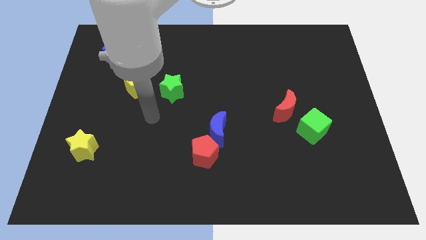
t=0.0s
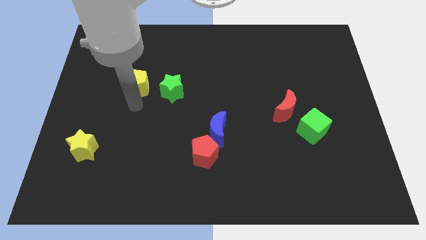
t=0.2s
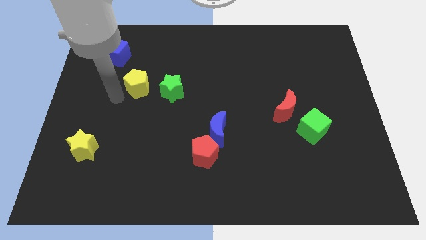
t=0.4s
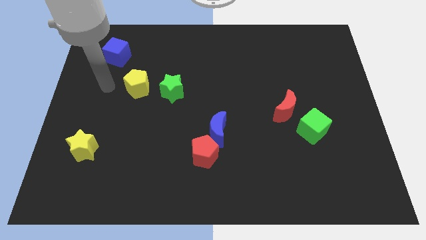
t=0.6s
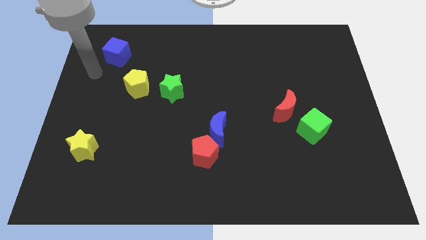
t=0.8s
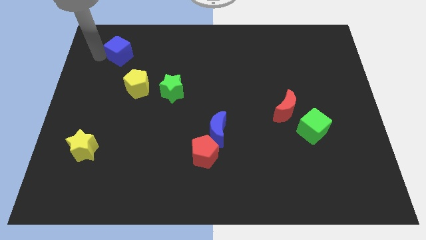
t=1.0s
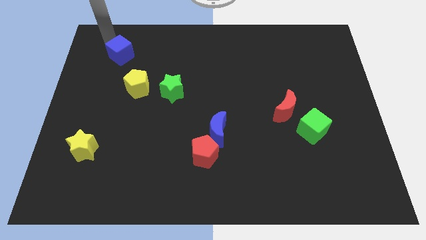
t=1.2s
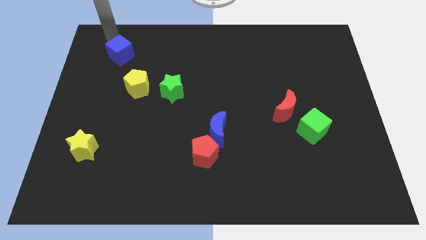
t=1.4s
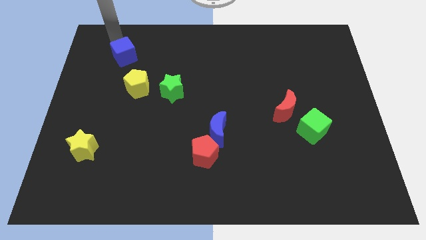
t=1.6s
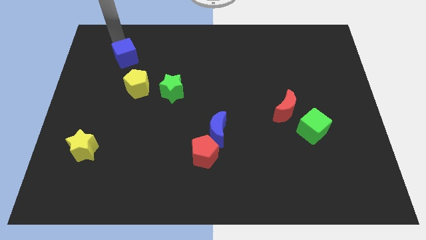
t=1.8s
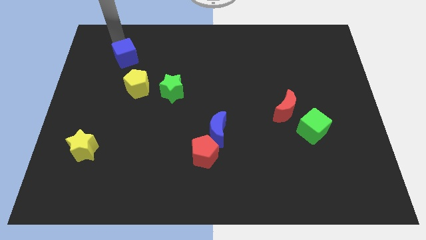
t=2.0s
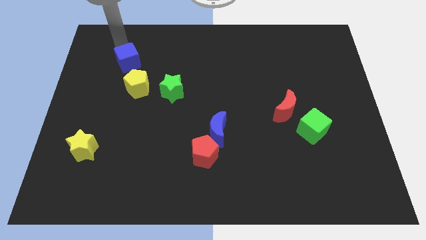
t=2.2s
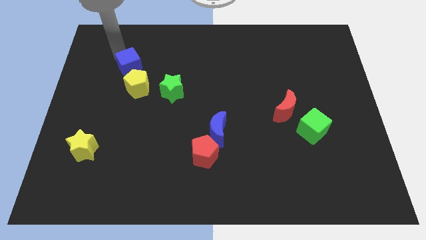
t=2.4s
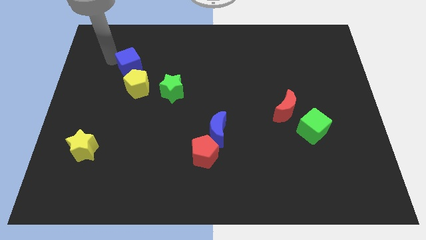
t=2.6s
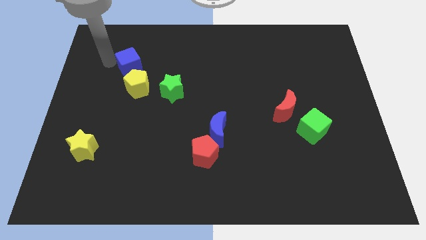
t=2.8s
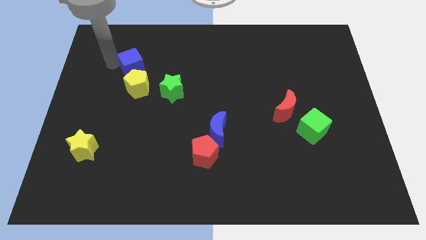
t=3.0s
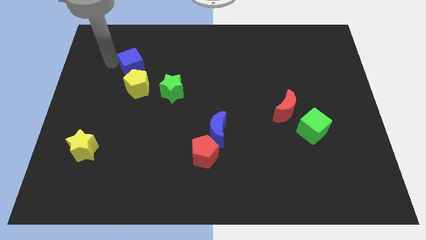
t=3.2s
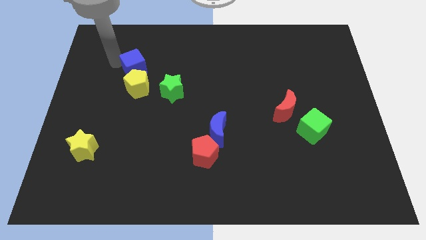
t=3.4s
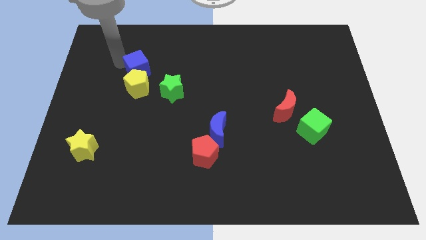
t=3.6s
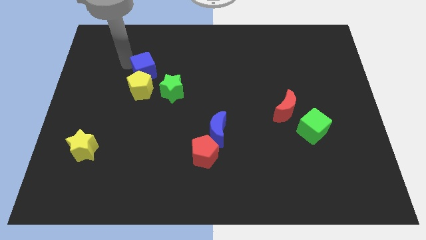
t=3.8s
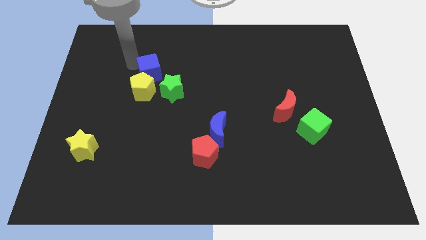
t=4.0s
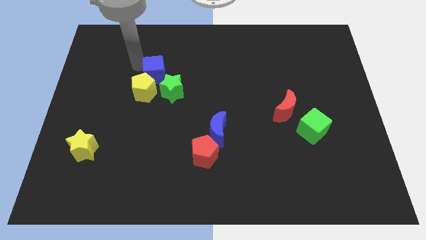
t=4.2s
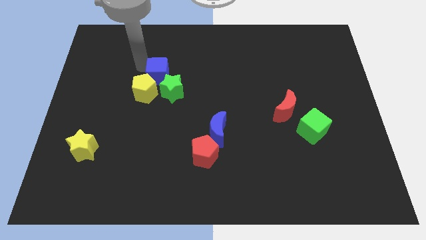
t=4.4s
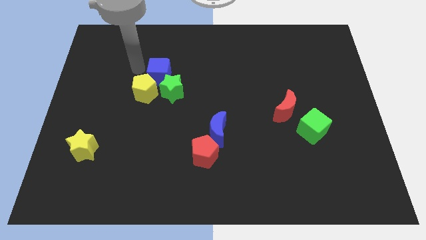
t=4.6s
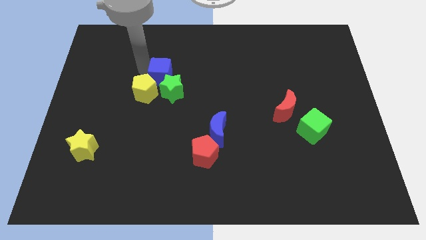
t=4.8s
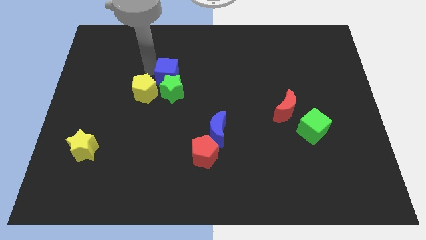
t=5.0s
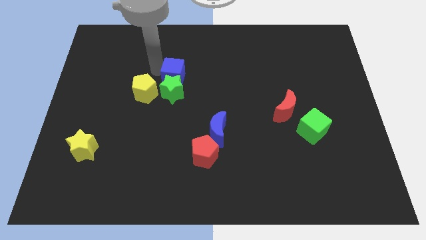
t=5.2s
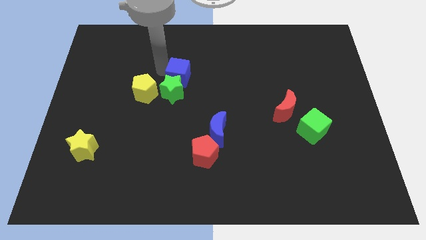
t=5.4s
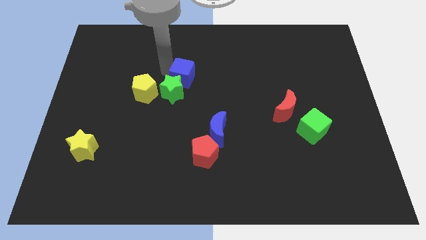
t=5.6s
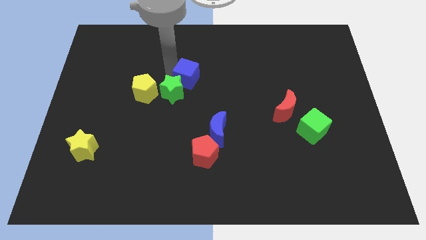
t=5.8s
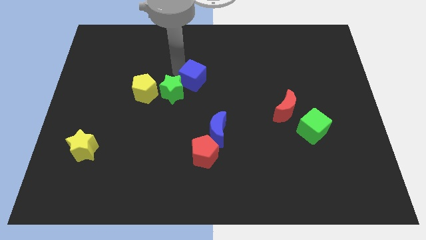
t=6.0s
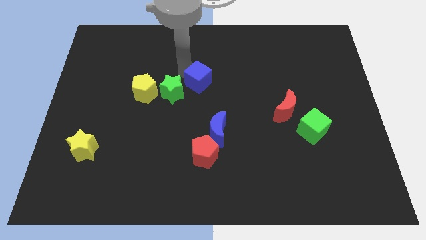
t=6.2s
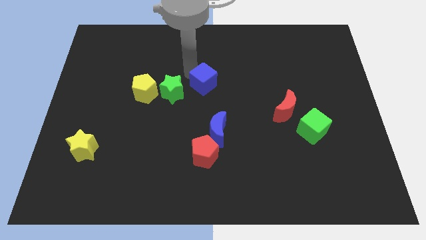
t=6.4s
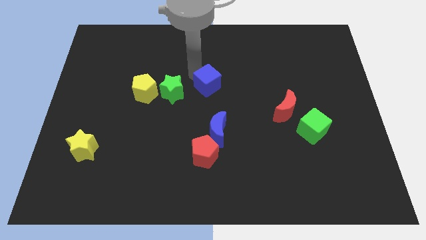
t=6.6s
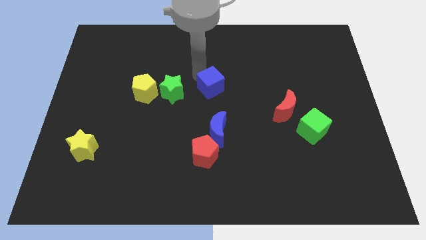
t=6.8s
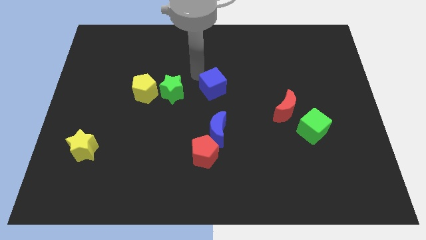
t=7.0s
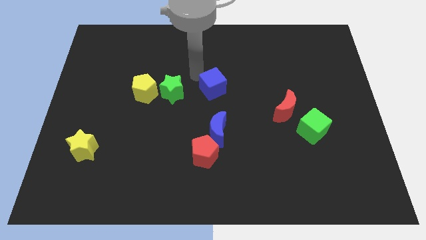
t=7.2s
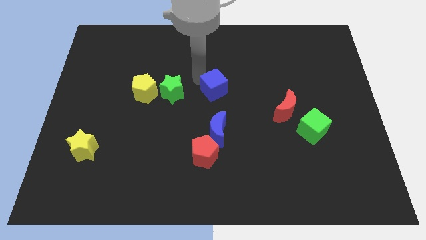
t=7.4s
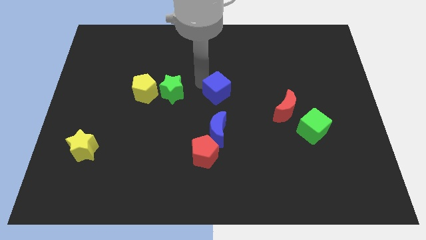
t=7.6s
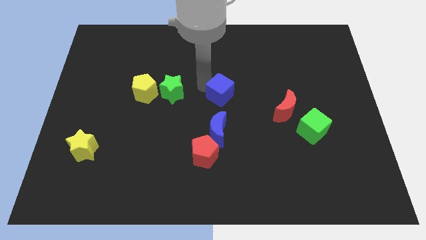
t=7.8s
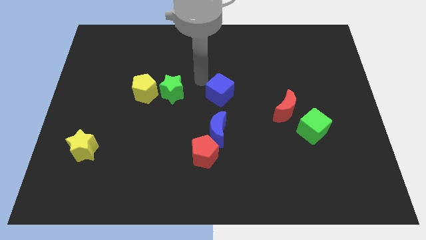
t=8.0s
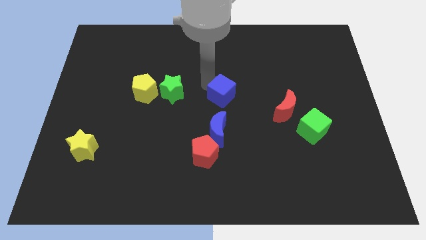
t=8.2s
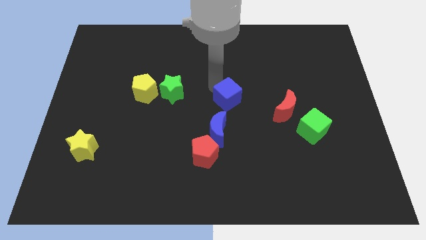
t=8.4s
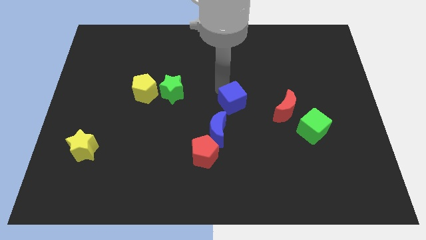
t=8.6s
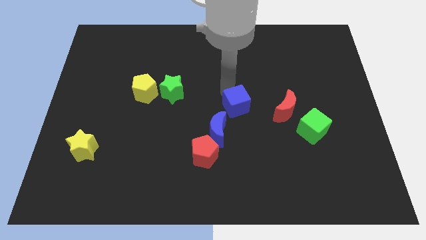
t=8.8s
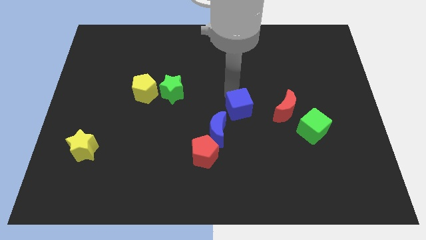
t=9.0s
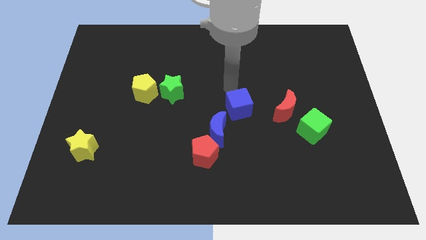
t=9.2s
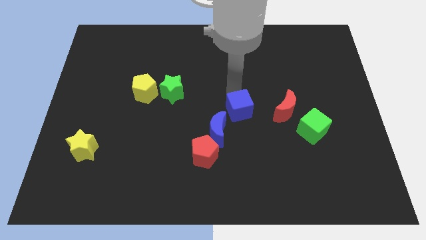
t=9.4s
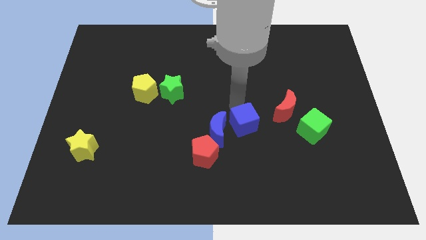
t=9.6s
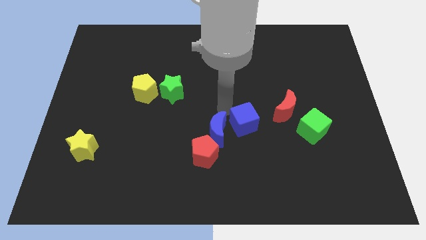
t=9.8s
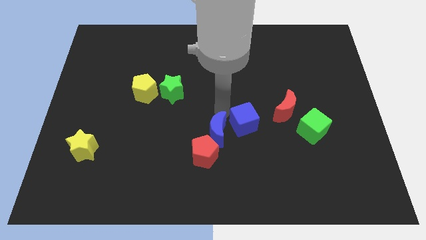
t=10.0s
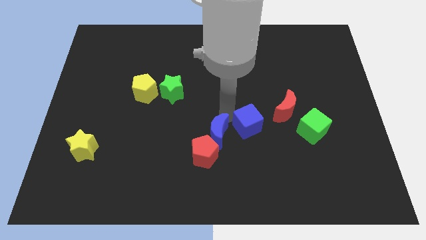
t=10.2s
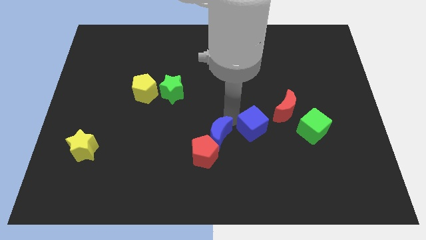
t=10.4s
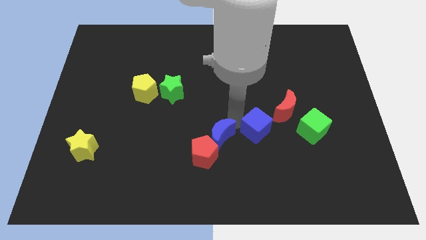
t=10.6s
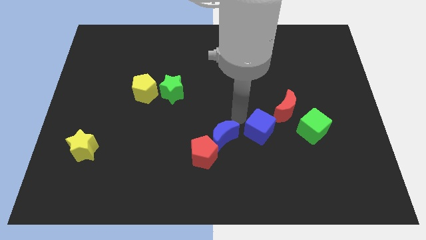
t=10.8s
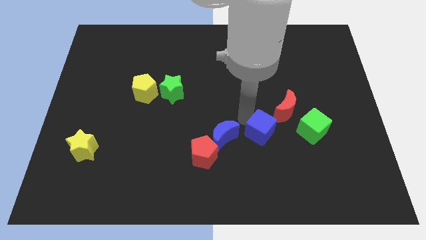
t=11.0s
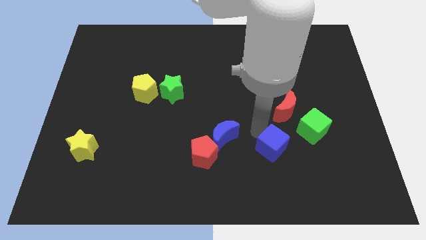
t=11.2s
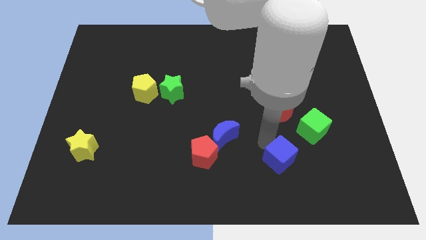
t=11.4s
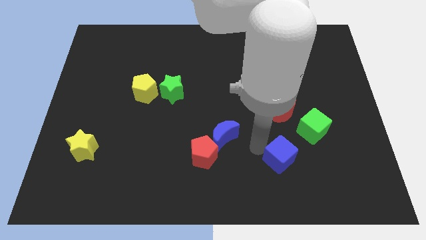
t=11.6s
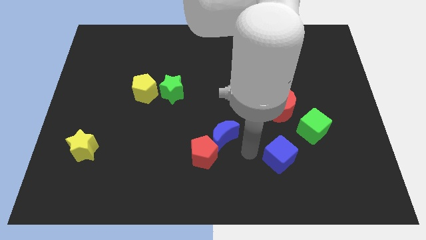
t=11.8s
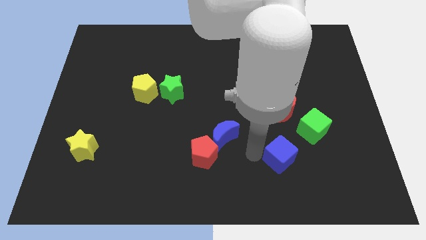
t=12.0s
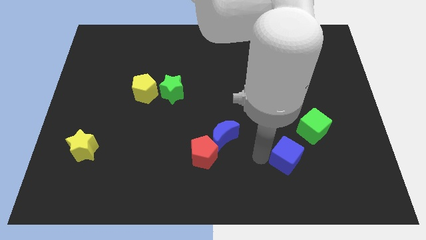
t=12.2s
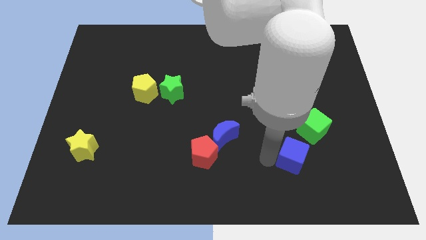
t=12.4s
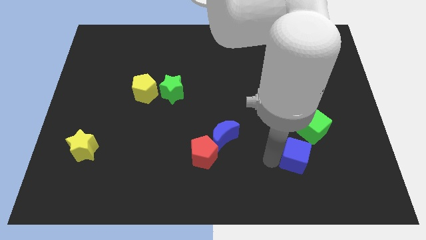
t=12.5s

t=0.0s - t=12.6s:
slide the blue cube to the bottom side of the green cube

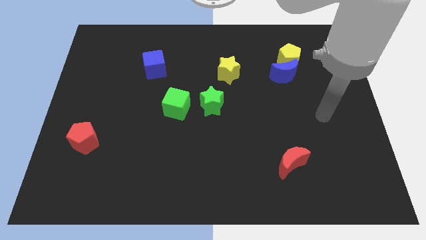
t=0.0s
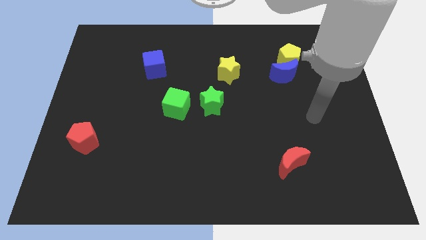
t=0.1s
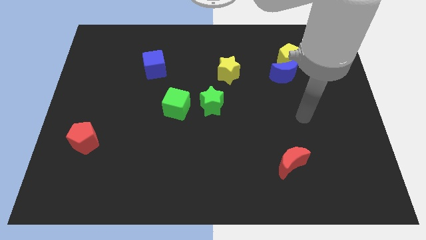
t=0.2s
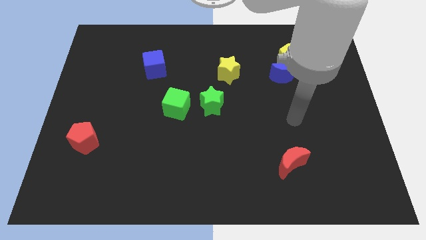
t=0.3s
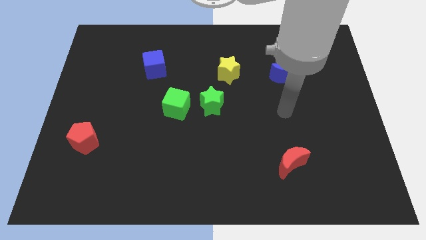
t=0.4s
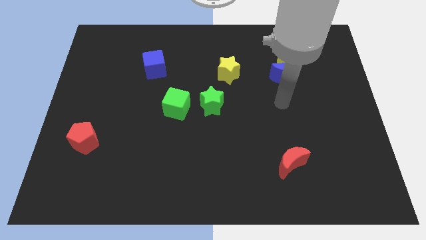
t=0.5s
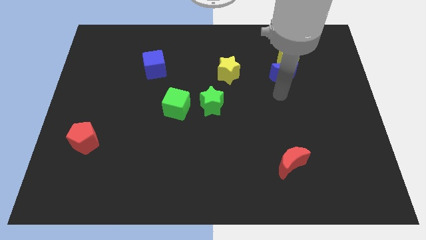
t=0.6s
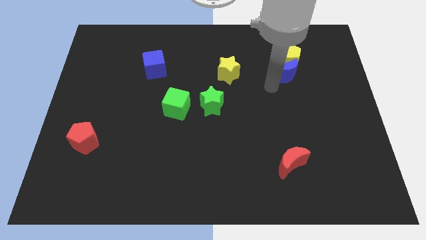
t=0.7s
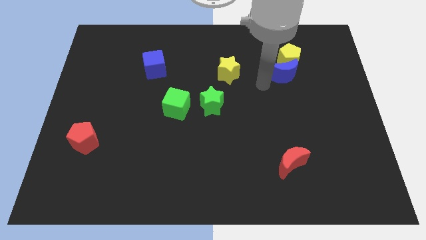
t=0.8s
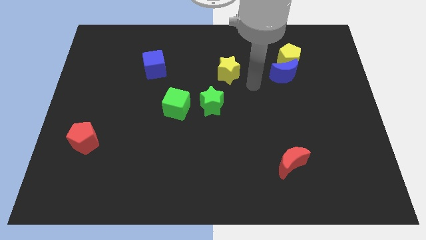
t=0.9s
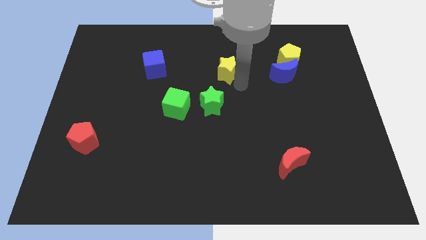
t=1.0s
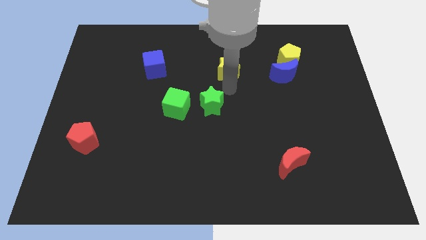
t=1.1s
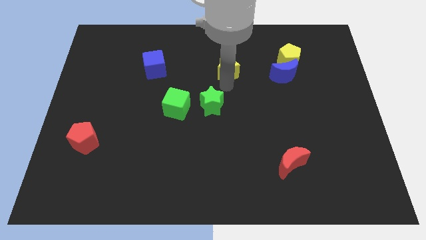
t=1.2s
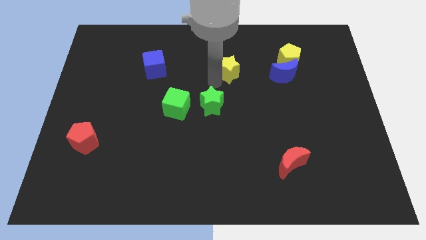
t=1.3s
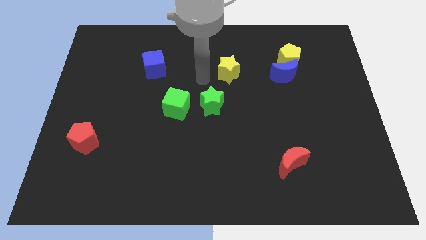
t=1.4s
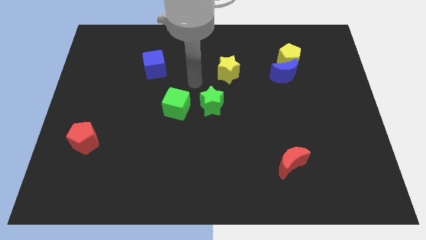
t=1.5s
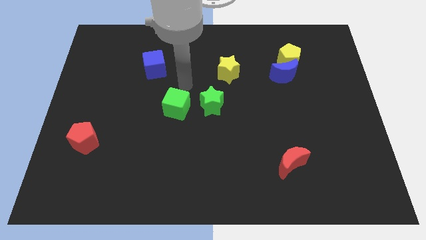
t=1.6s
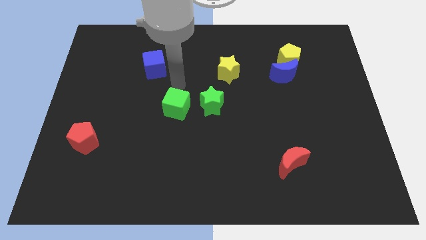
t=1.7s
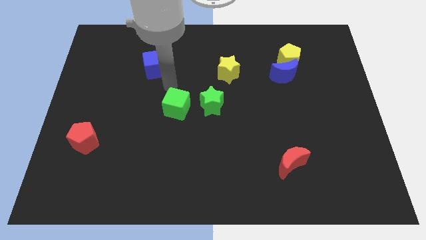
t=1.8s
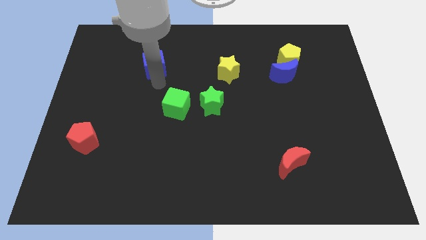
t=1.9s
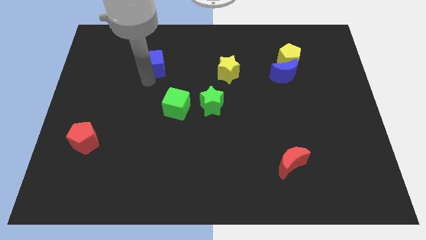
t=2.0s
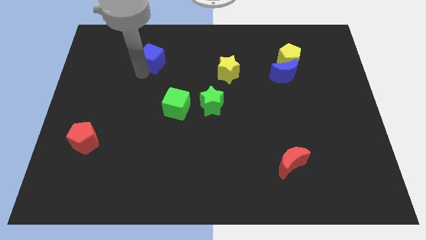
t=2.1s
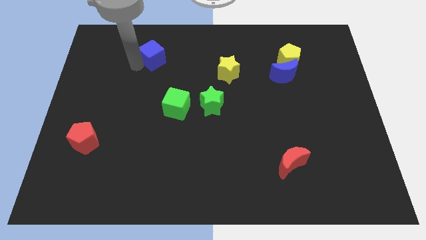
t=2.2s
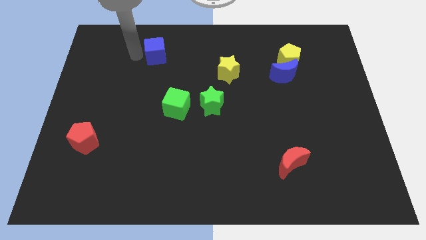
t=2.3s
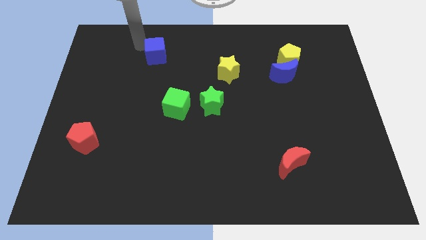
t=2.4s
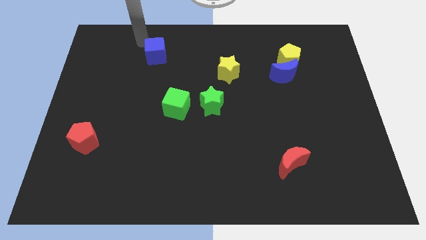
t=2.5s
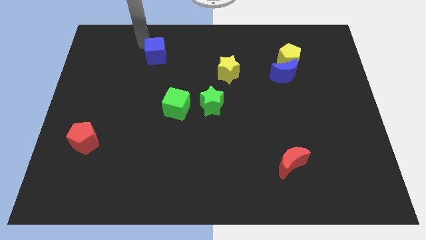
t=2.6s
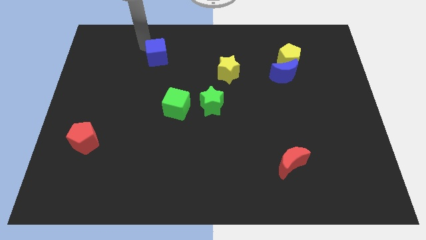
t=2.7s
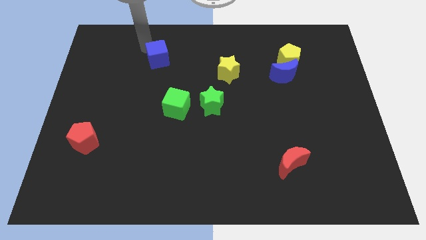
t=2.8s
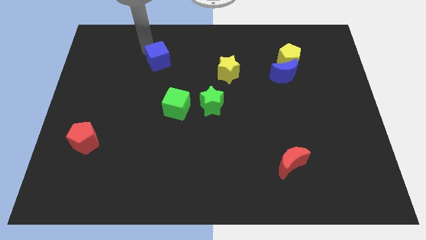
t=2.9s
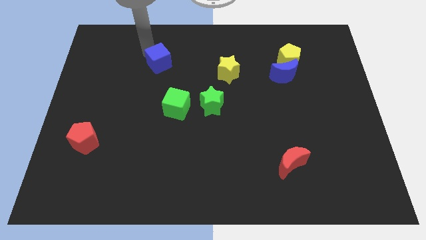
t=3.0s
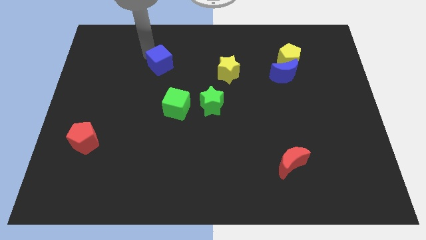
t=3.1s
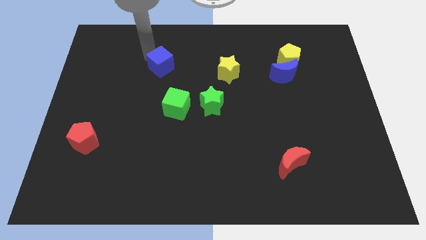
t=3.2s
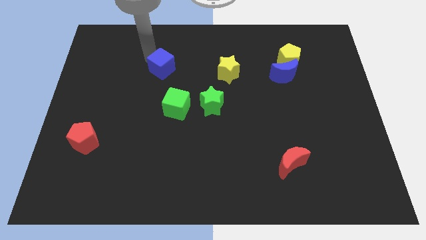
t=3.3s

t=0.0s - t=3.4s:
push the blue cube to the top of the green cube
